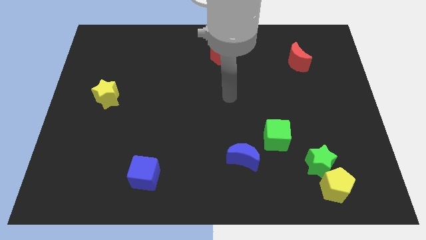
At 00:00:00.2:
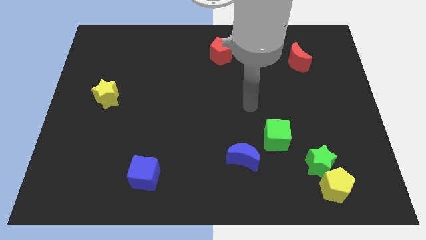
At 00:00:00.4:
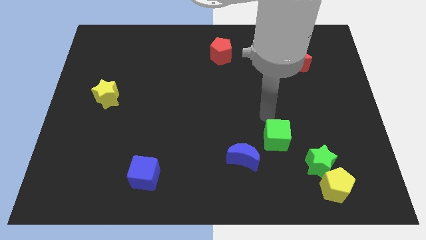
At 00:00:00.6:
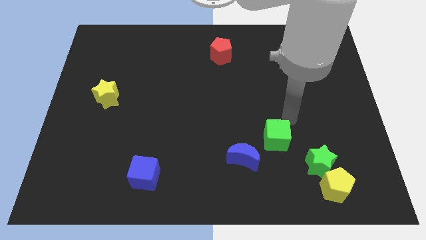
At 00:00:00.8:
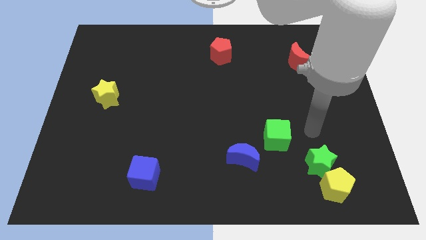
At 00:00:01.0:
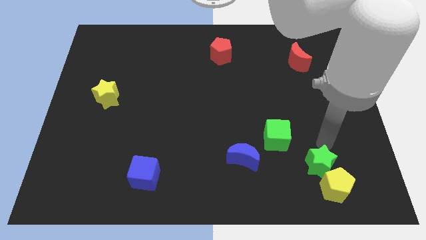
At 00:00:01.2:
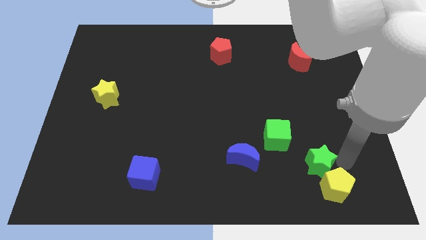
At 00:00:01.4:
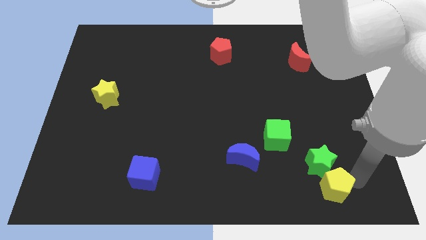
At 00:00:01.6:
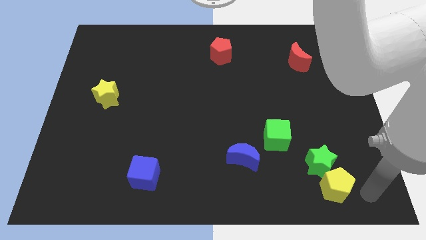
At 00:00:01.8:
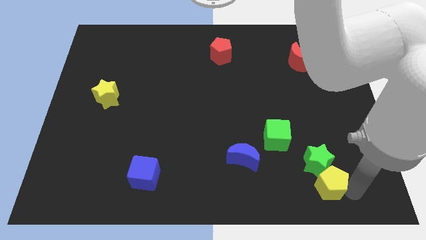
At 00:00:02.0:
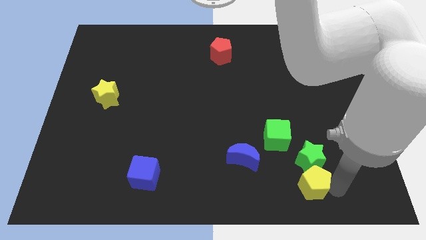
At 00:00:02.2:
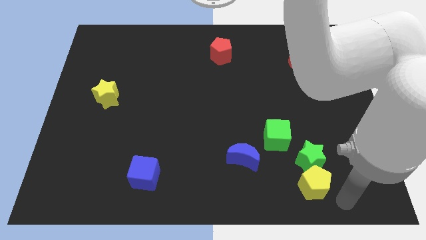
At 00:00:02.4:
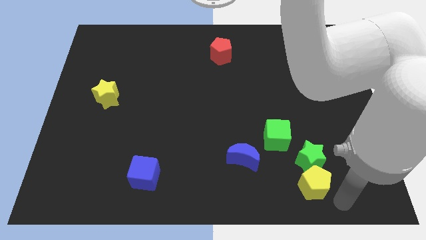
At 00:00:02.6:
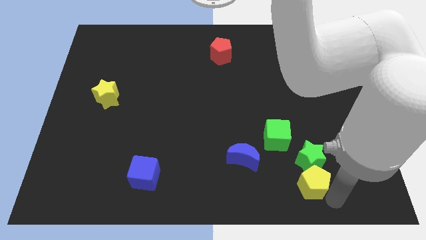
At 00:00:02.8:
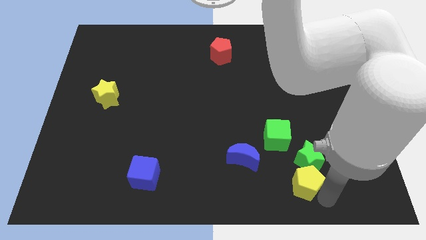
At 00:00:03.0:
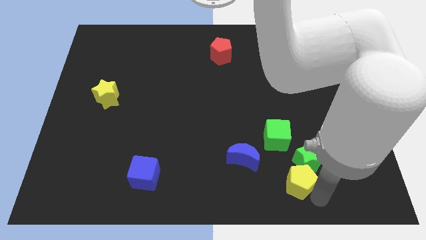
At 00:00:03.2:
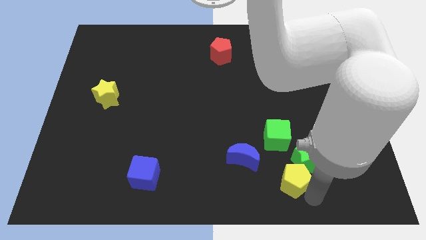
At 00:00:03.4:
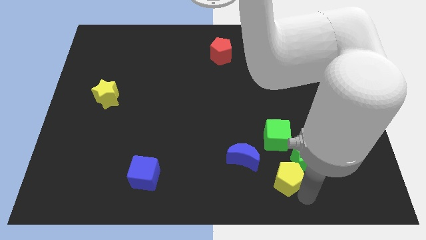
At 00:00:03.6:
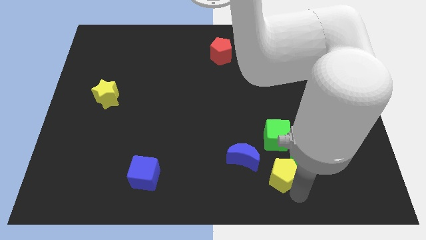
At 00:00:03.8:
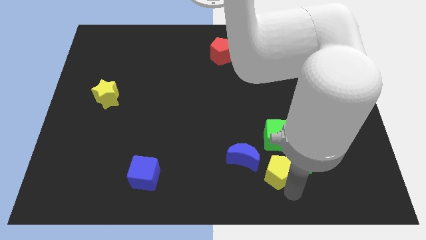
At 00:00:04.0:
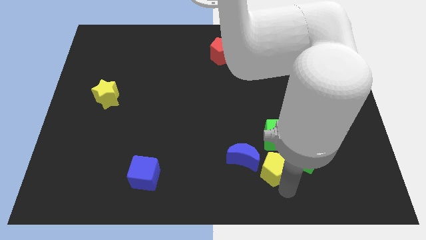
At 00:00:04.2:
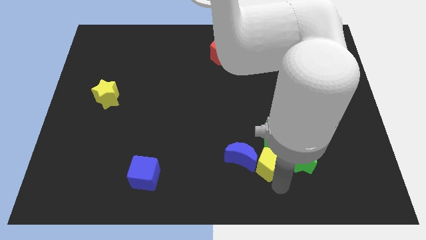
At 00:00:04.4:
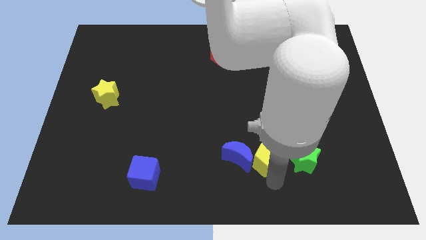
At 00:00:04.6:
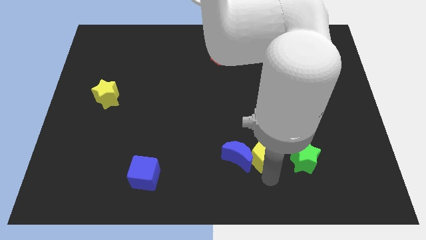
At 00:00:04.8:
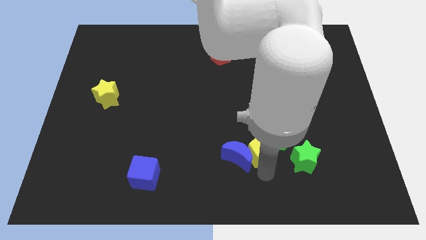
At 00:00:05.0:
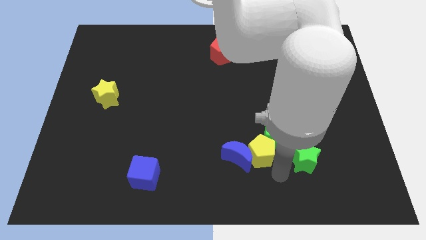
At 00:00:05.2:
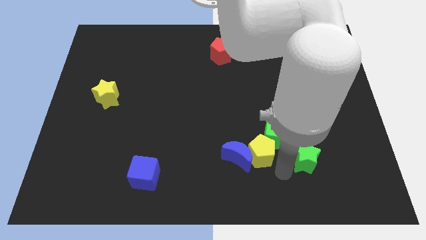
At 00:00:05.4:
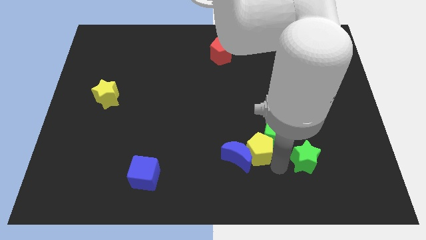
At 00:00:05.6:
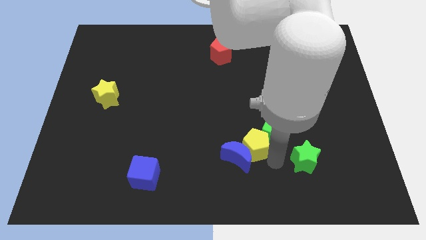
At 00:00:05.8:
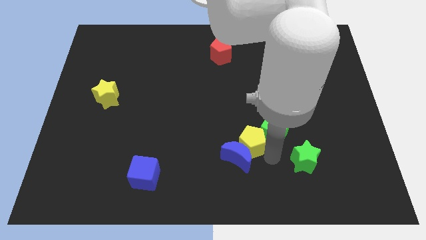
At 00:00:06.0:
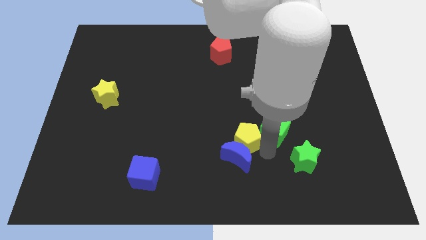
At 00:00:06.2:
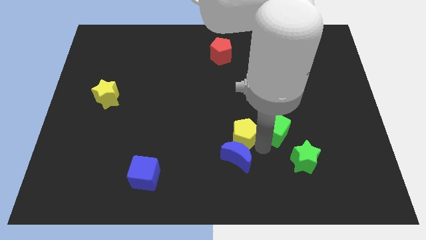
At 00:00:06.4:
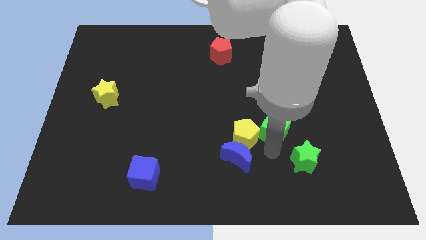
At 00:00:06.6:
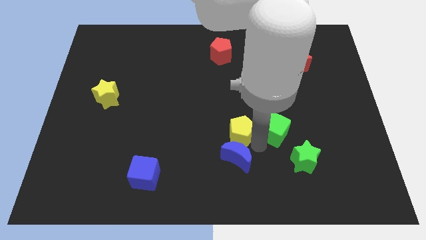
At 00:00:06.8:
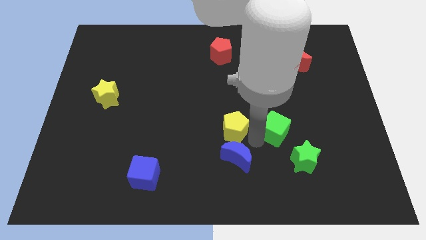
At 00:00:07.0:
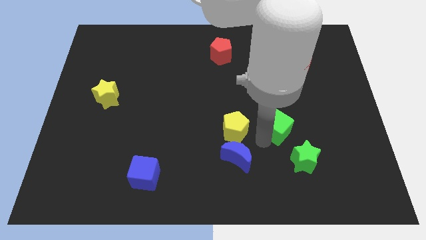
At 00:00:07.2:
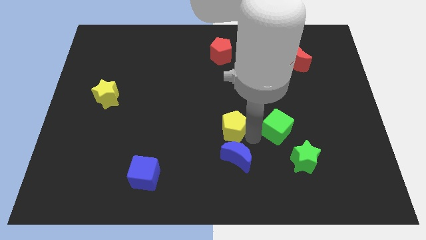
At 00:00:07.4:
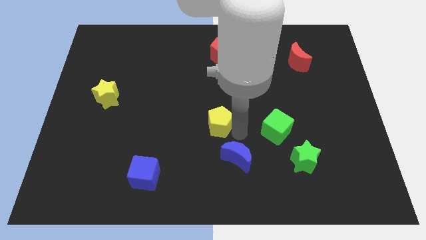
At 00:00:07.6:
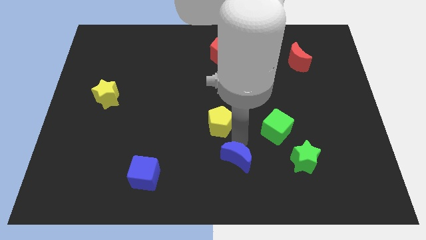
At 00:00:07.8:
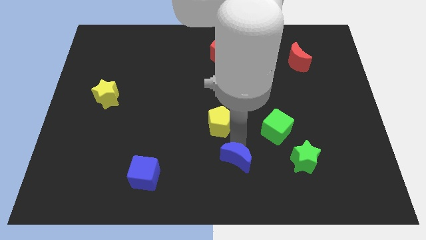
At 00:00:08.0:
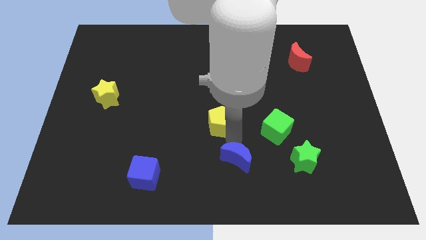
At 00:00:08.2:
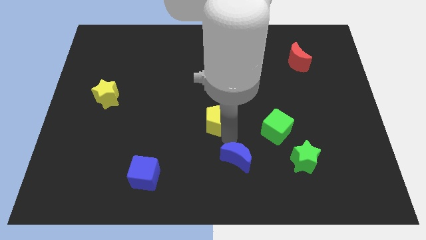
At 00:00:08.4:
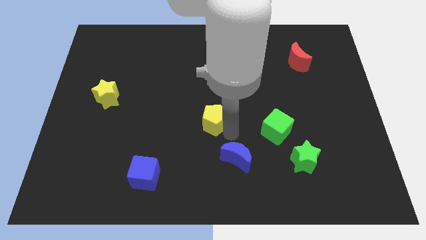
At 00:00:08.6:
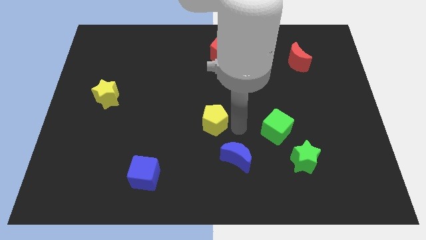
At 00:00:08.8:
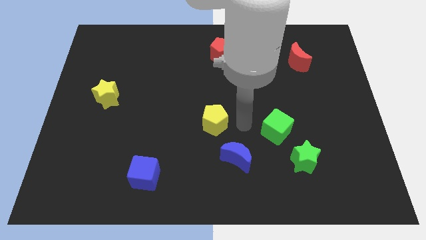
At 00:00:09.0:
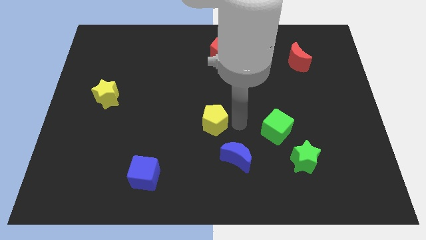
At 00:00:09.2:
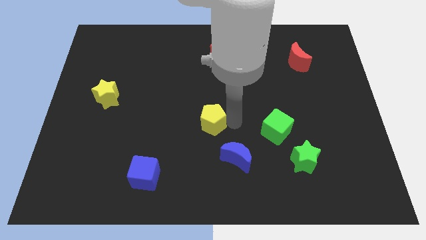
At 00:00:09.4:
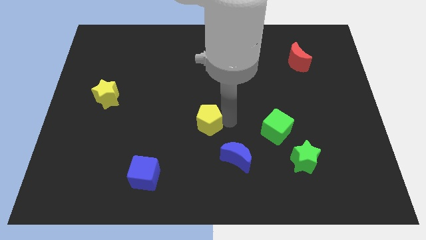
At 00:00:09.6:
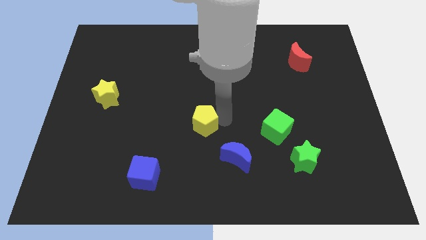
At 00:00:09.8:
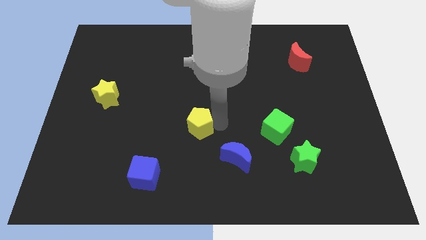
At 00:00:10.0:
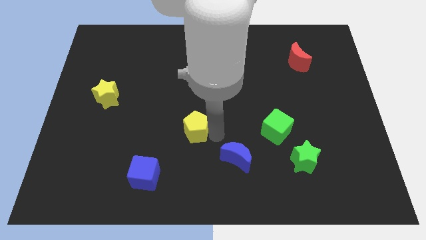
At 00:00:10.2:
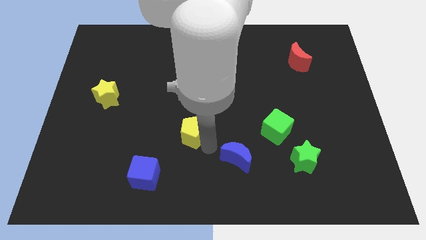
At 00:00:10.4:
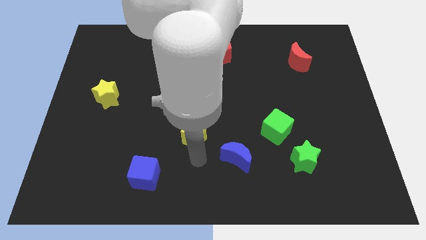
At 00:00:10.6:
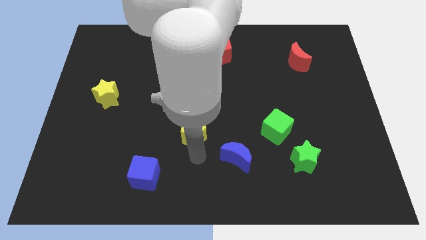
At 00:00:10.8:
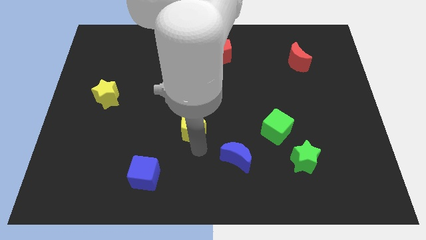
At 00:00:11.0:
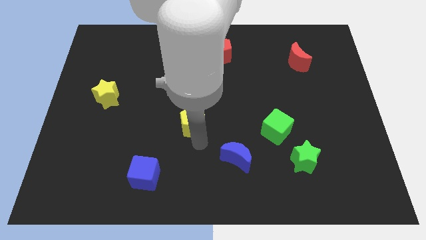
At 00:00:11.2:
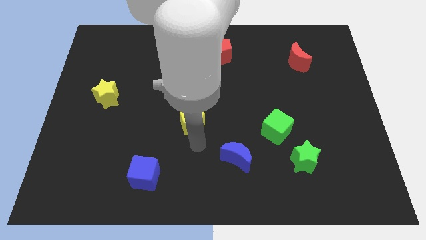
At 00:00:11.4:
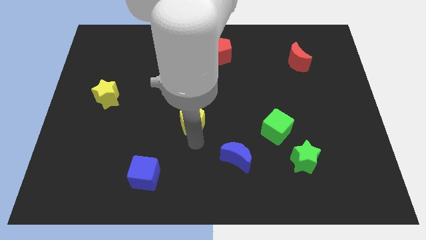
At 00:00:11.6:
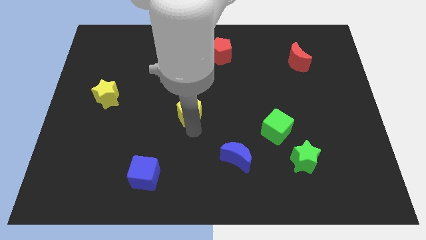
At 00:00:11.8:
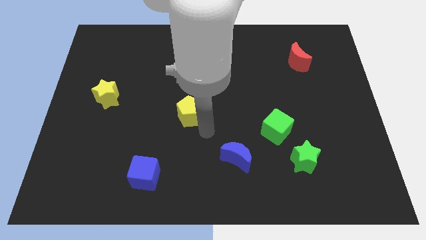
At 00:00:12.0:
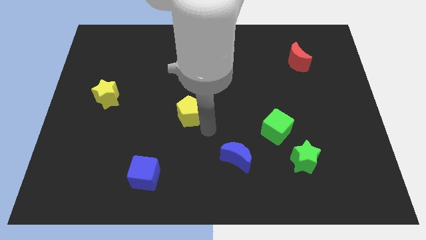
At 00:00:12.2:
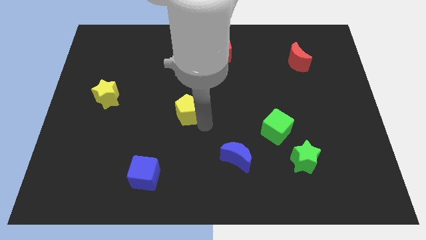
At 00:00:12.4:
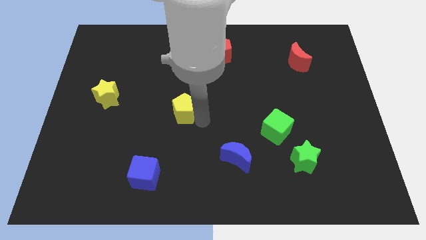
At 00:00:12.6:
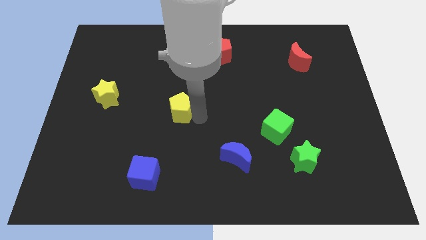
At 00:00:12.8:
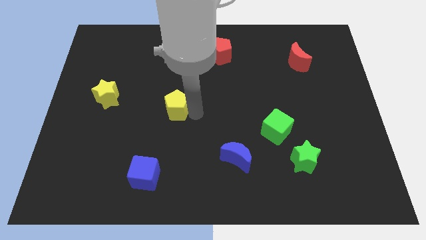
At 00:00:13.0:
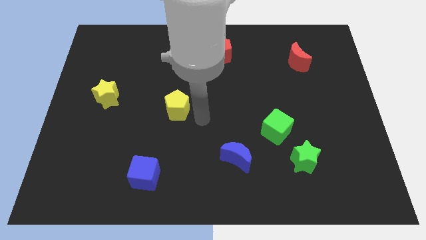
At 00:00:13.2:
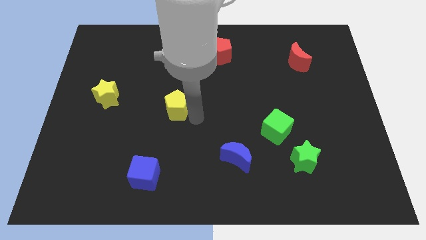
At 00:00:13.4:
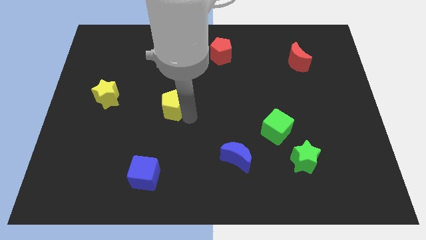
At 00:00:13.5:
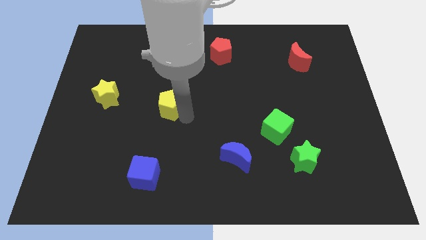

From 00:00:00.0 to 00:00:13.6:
push the yellow pentagon just right of the yellow star

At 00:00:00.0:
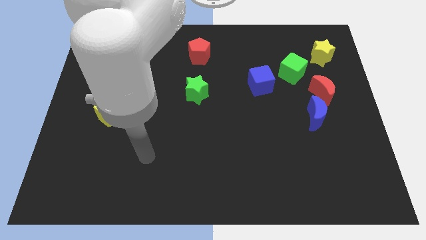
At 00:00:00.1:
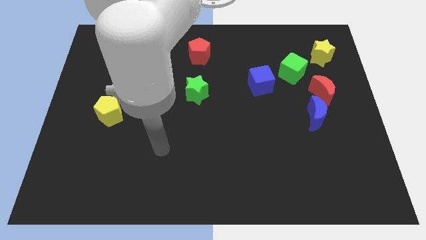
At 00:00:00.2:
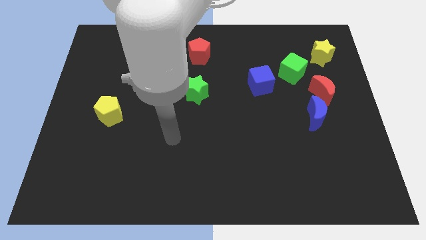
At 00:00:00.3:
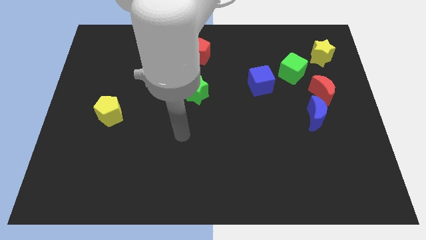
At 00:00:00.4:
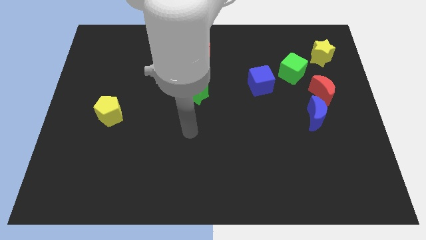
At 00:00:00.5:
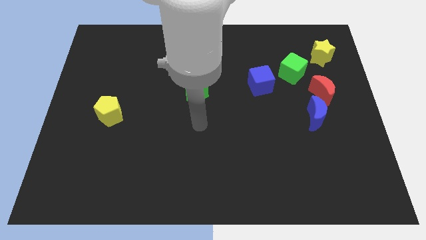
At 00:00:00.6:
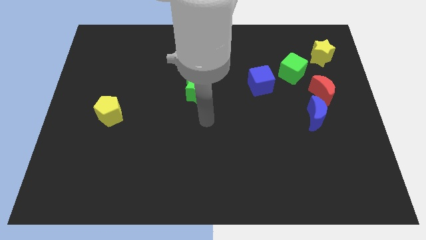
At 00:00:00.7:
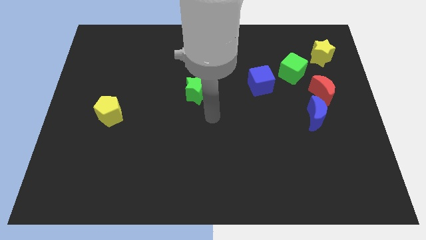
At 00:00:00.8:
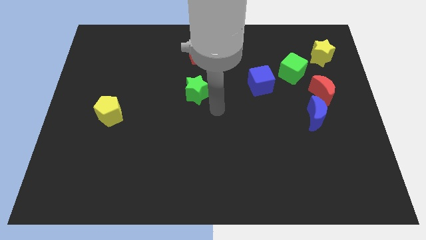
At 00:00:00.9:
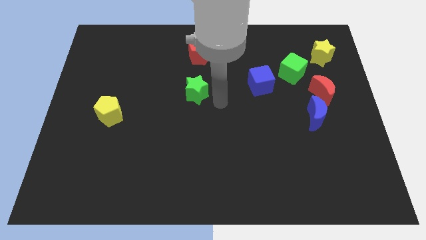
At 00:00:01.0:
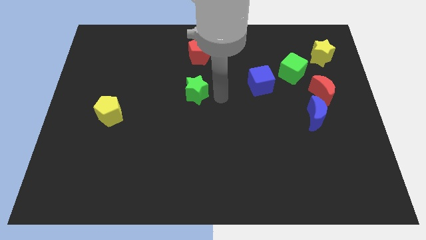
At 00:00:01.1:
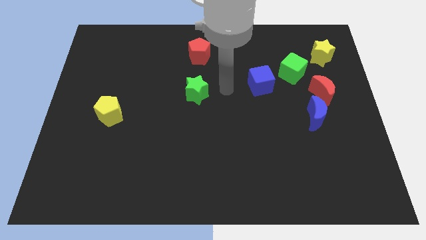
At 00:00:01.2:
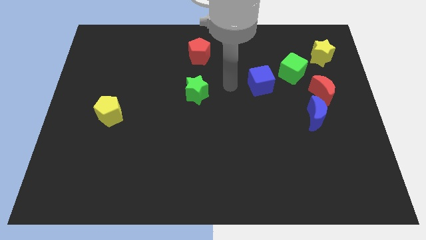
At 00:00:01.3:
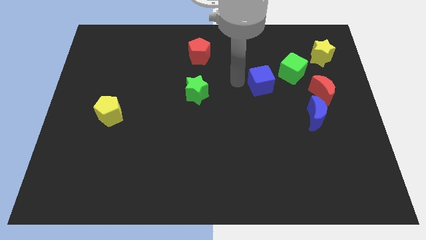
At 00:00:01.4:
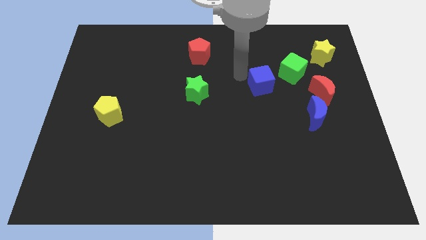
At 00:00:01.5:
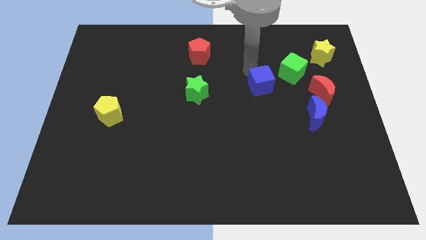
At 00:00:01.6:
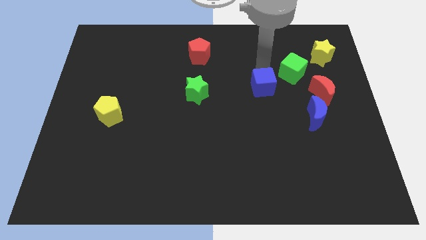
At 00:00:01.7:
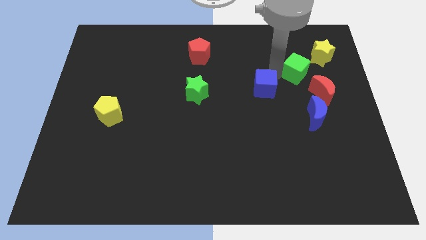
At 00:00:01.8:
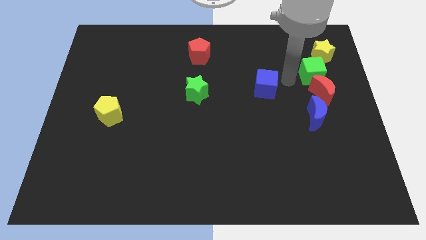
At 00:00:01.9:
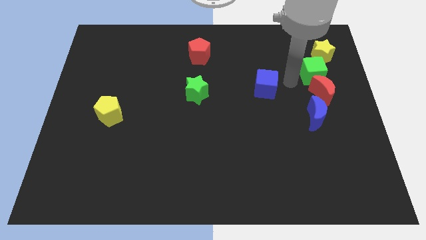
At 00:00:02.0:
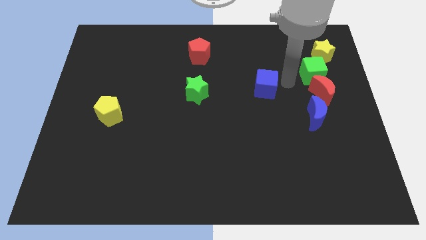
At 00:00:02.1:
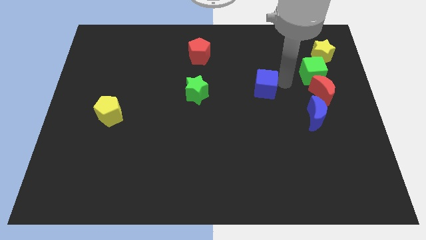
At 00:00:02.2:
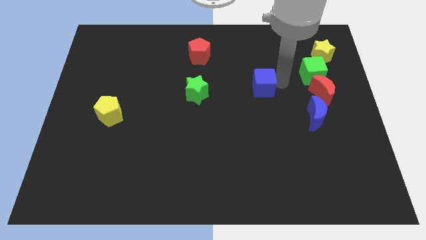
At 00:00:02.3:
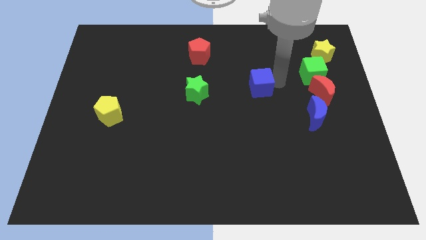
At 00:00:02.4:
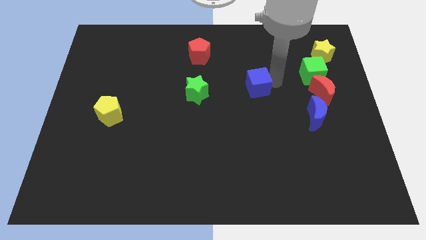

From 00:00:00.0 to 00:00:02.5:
push the blue cube right of the green star
